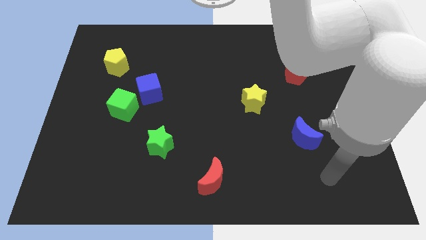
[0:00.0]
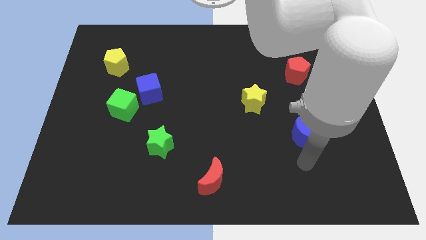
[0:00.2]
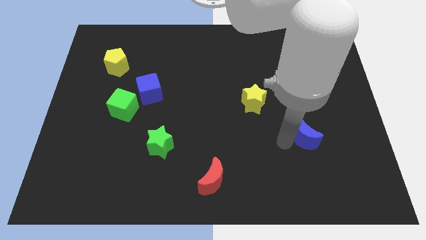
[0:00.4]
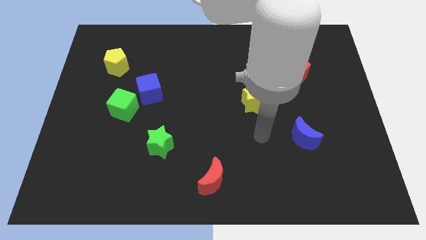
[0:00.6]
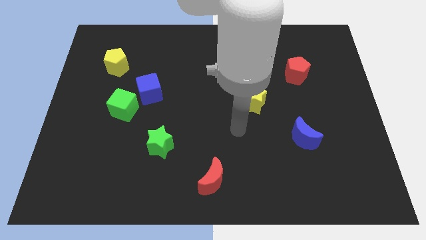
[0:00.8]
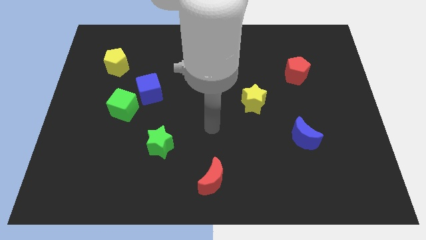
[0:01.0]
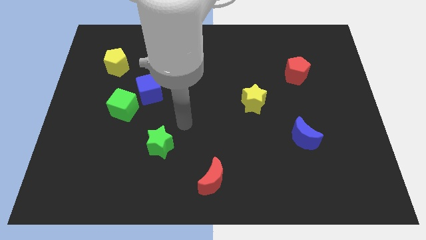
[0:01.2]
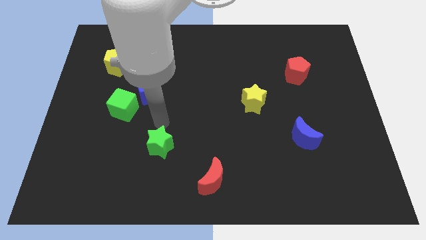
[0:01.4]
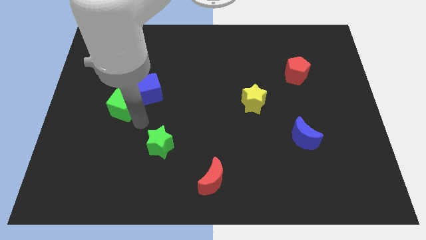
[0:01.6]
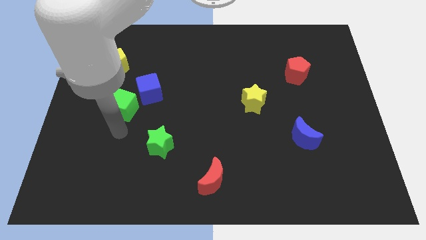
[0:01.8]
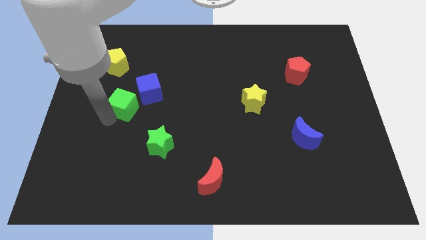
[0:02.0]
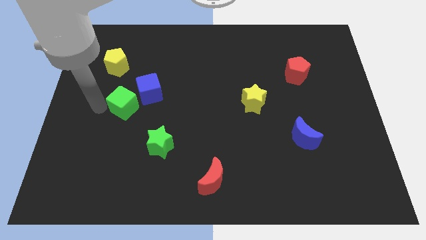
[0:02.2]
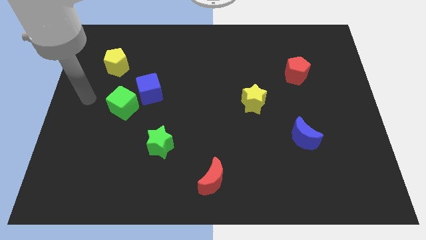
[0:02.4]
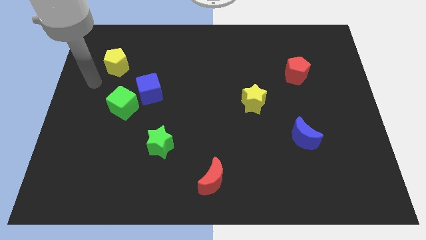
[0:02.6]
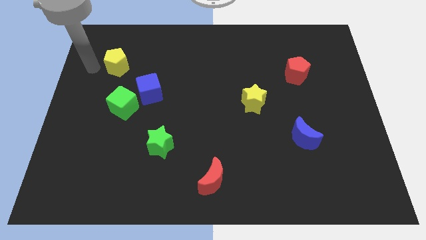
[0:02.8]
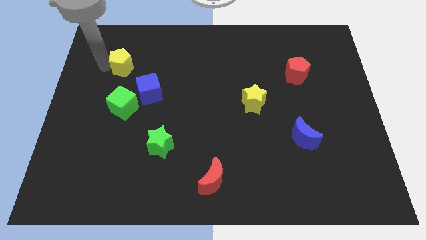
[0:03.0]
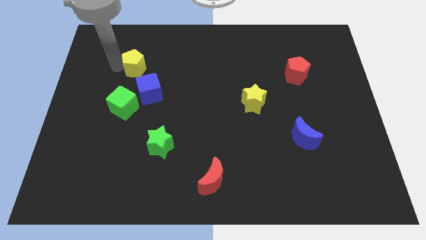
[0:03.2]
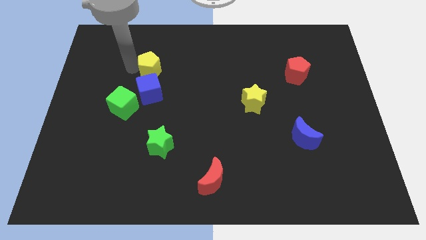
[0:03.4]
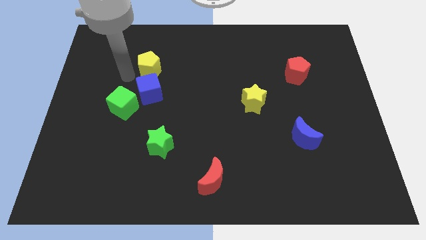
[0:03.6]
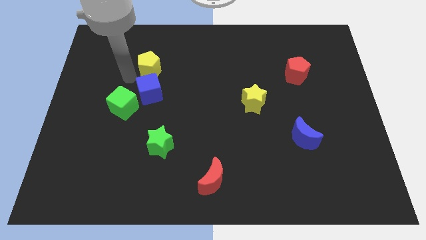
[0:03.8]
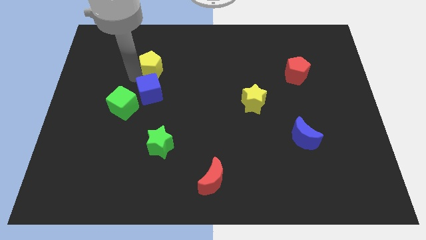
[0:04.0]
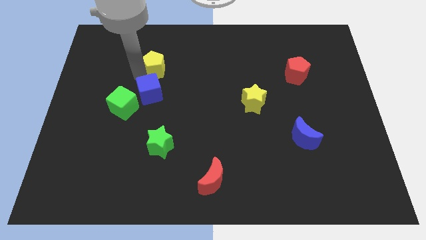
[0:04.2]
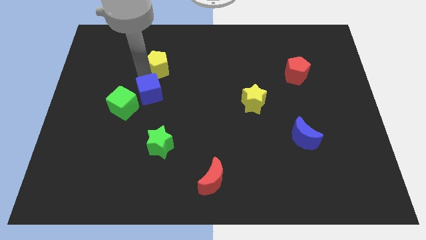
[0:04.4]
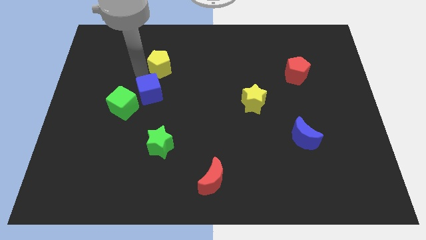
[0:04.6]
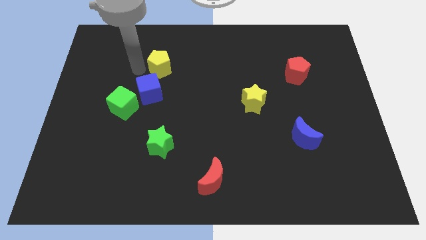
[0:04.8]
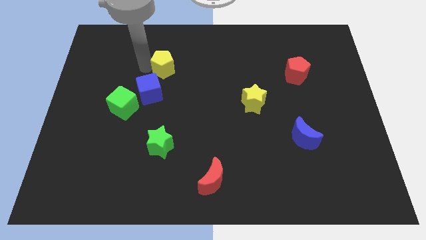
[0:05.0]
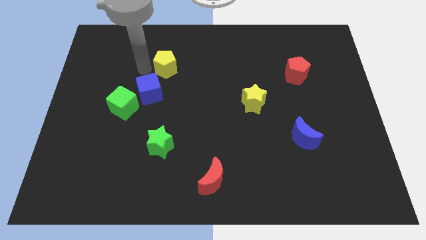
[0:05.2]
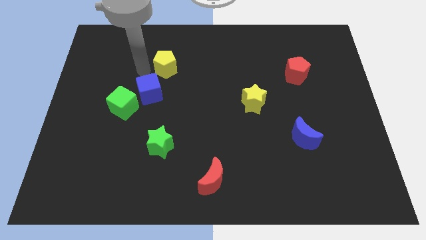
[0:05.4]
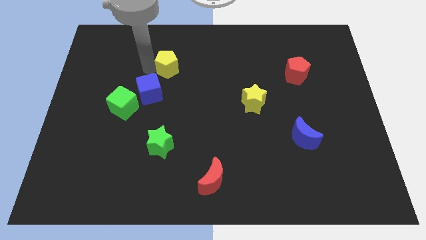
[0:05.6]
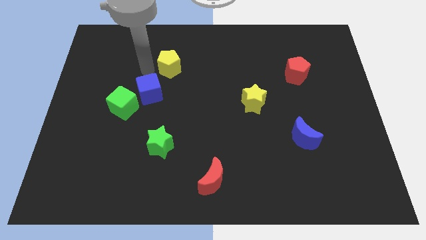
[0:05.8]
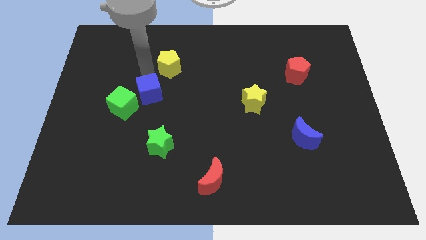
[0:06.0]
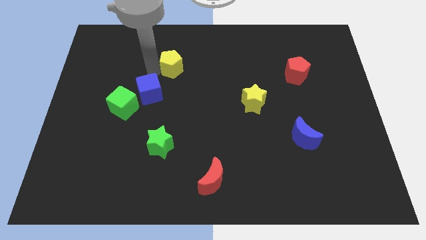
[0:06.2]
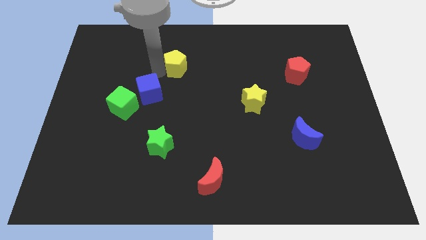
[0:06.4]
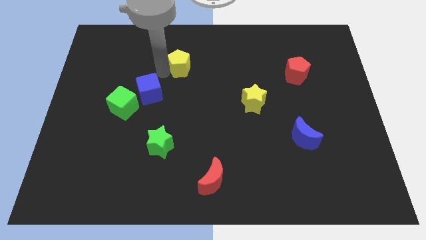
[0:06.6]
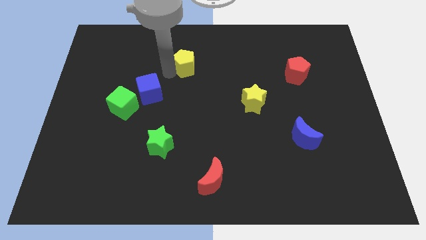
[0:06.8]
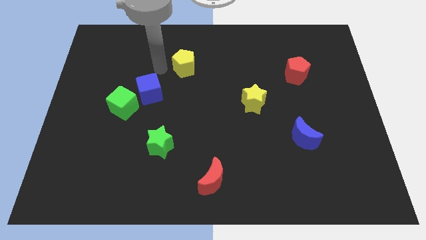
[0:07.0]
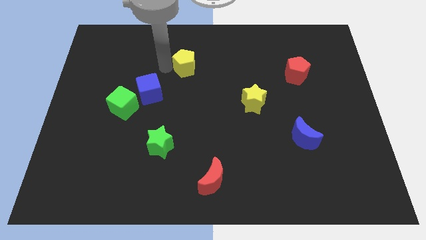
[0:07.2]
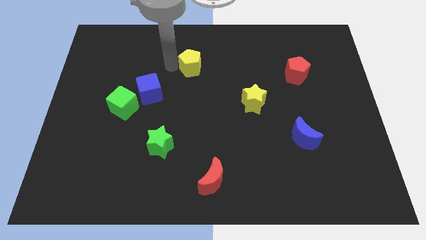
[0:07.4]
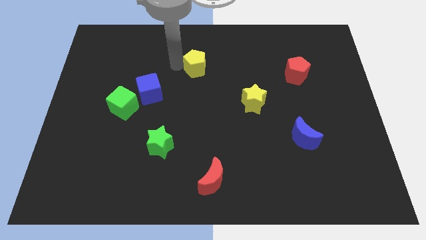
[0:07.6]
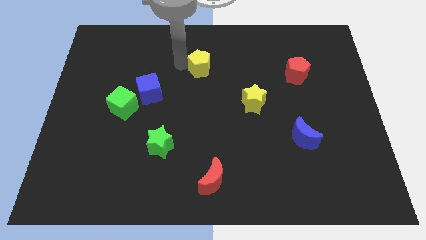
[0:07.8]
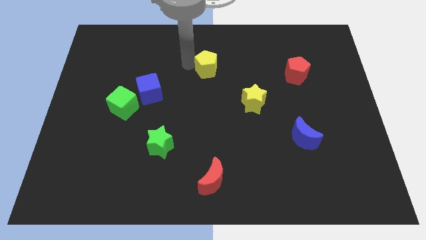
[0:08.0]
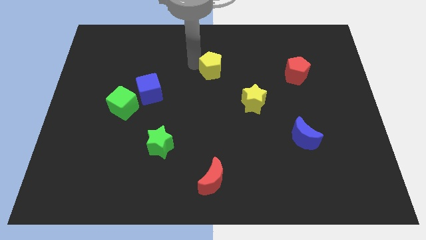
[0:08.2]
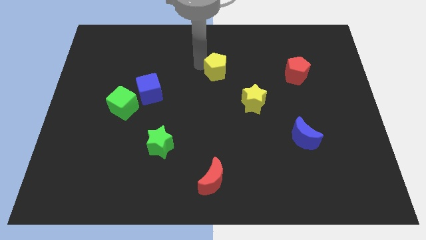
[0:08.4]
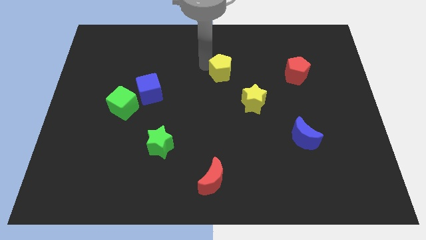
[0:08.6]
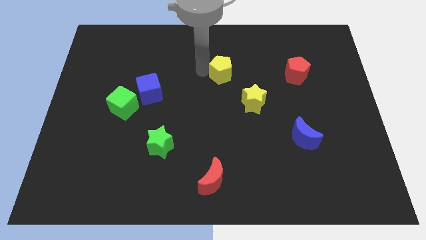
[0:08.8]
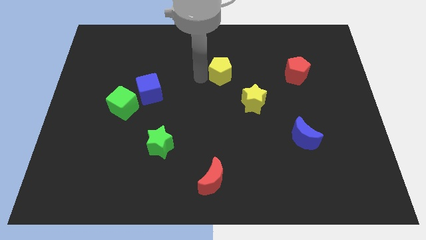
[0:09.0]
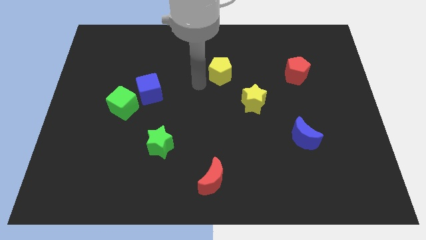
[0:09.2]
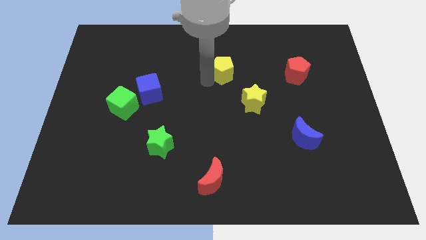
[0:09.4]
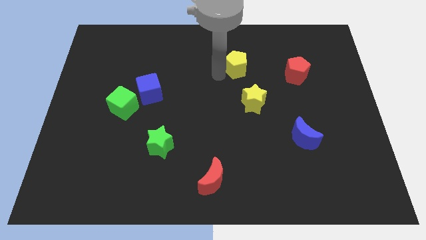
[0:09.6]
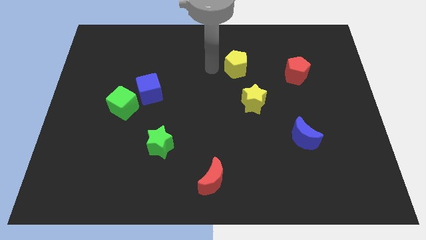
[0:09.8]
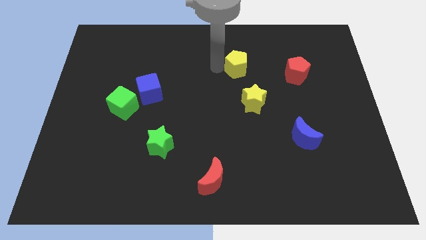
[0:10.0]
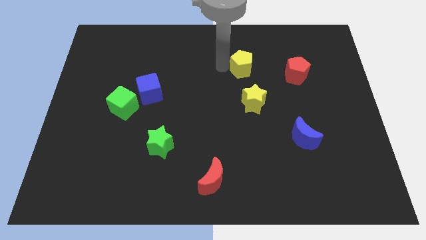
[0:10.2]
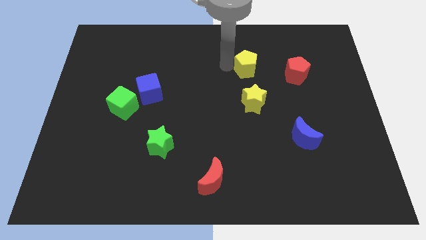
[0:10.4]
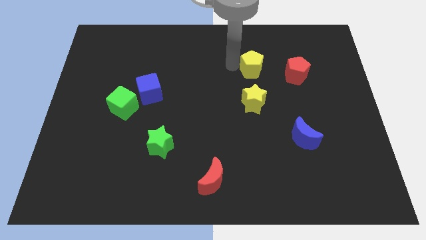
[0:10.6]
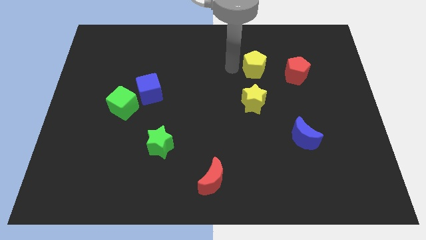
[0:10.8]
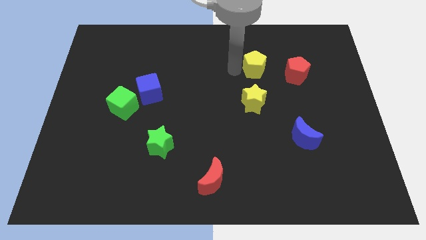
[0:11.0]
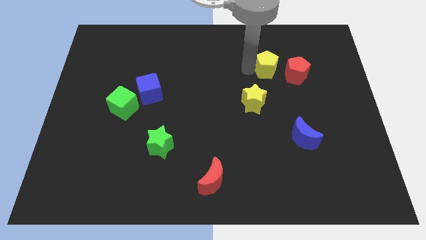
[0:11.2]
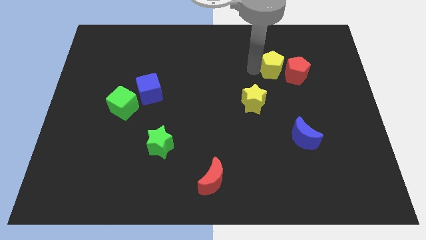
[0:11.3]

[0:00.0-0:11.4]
push the yellow pentagon close to the red pentagon

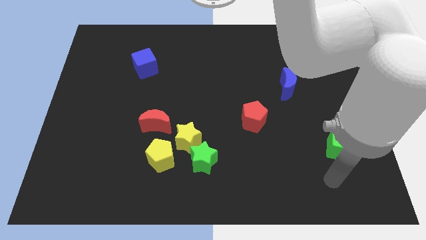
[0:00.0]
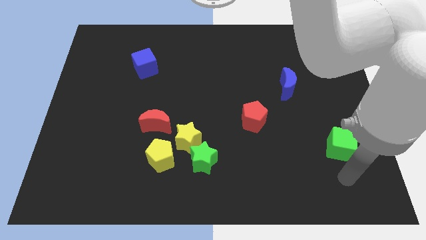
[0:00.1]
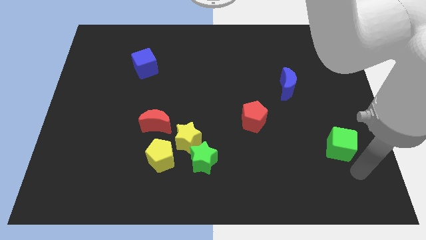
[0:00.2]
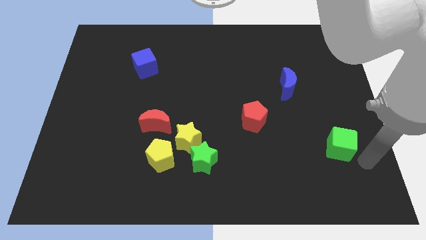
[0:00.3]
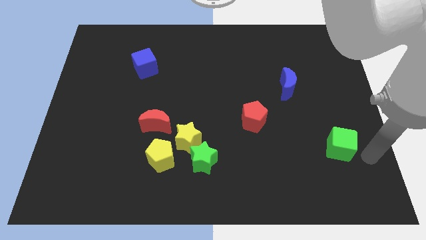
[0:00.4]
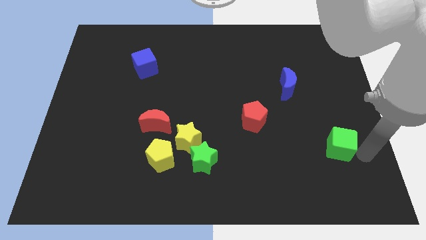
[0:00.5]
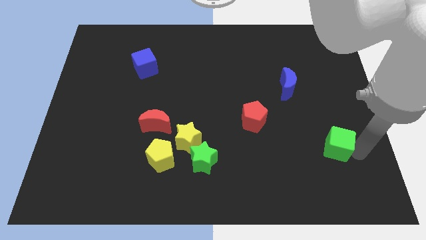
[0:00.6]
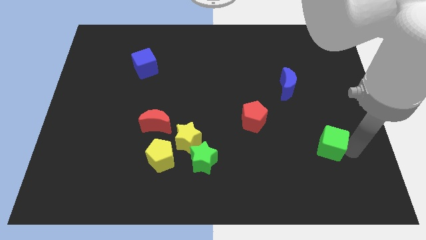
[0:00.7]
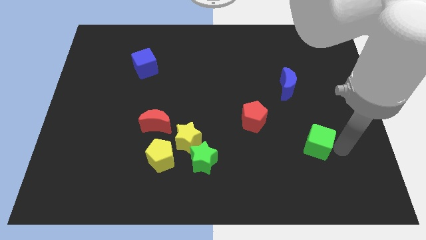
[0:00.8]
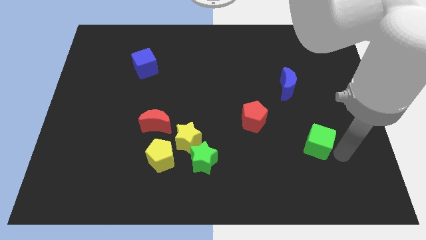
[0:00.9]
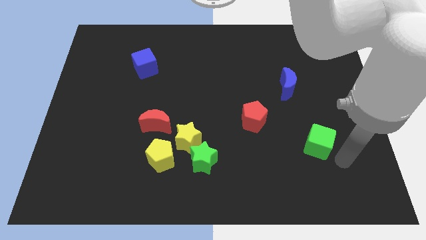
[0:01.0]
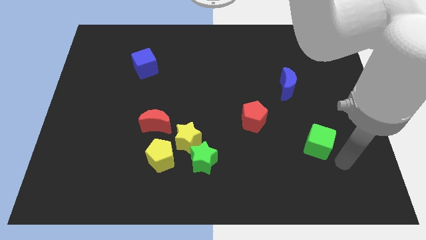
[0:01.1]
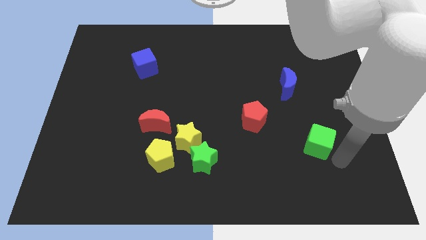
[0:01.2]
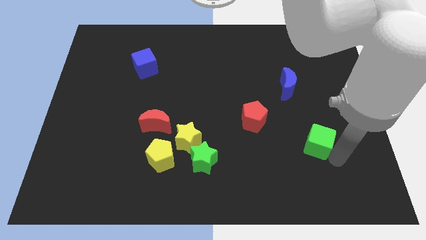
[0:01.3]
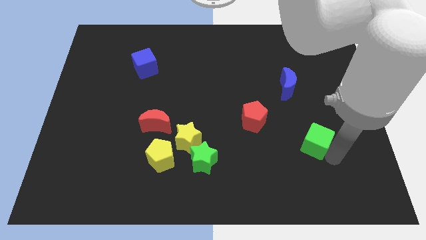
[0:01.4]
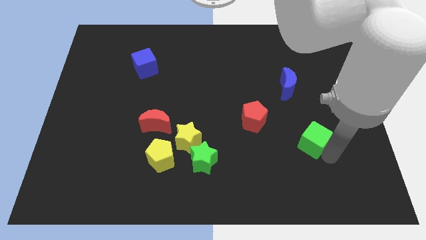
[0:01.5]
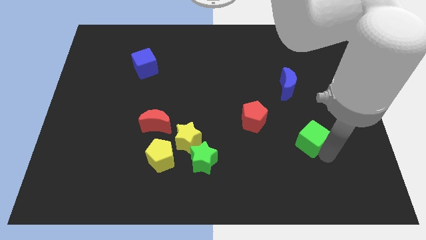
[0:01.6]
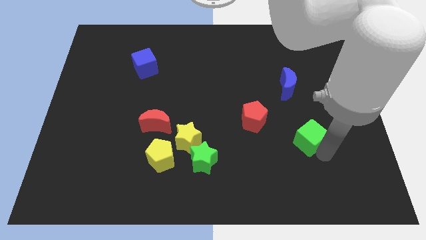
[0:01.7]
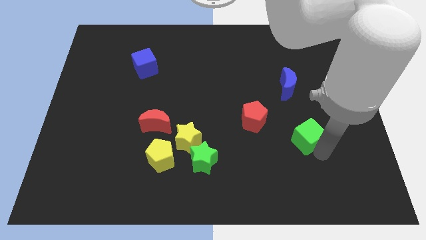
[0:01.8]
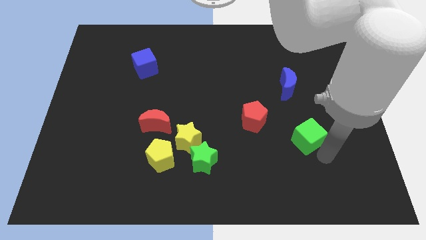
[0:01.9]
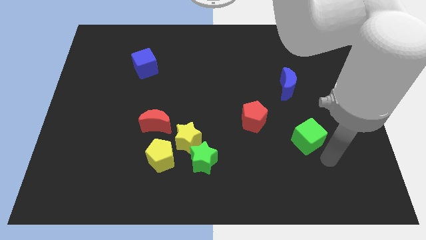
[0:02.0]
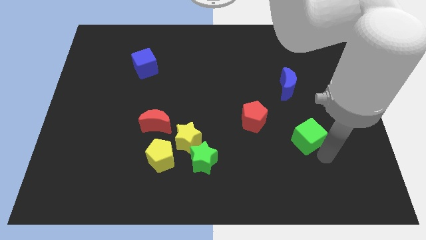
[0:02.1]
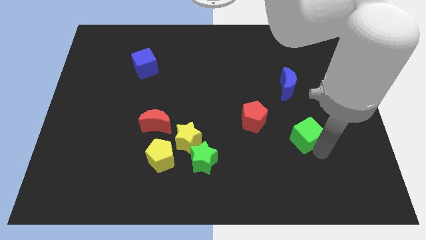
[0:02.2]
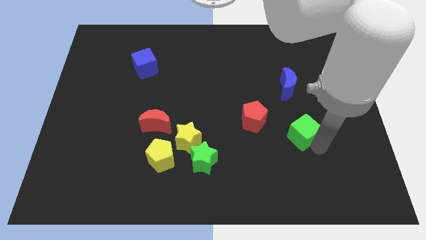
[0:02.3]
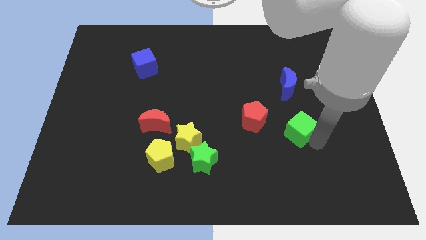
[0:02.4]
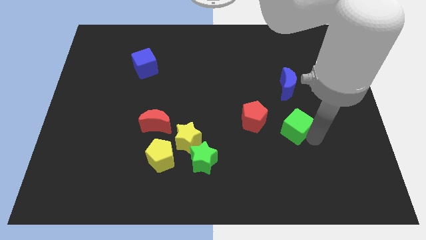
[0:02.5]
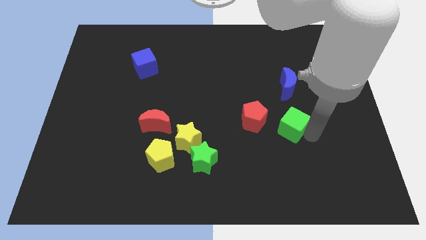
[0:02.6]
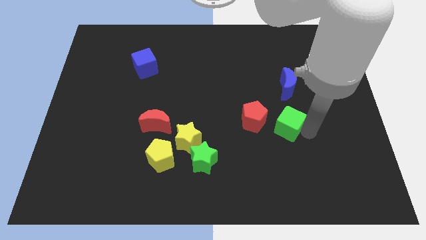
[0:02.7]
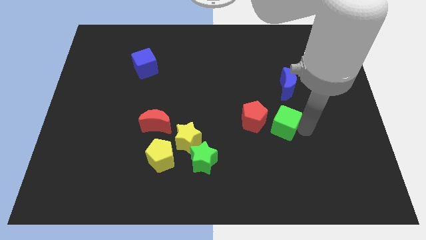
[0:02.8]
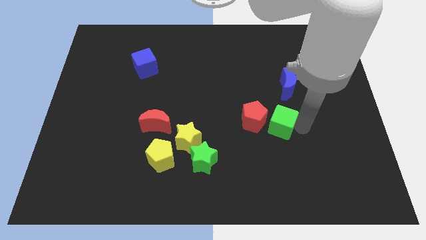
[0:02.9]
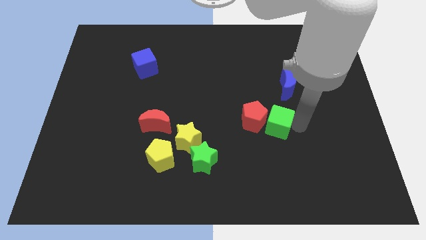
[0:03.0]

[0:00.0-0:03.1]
push the green cube close to the red pentagon
